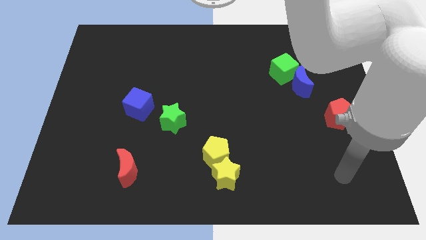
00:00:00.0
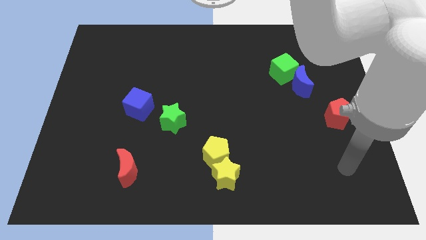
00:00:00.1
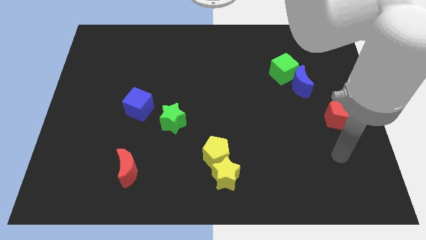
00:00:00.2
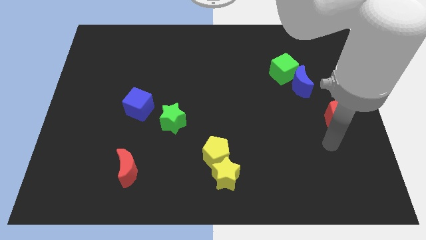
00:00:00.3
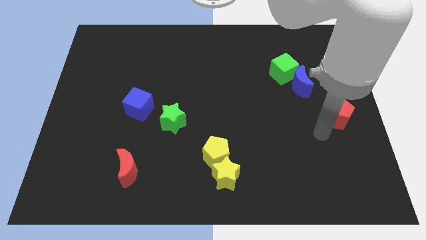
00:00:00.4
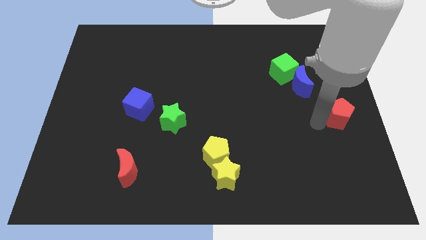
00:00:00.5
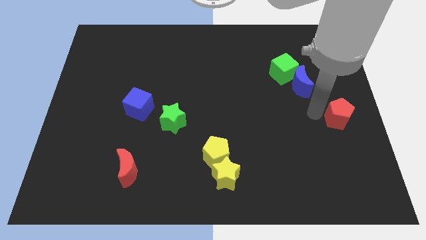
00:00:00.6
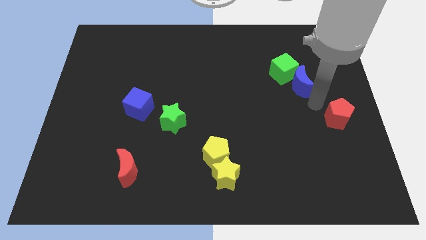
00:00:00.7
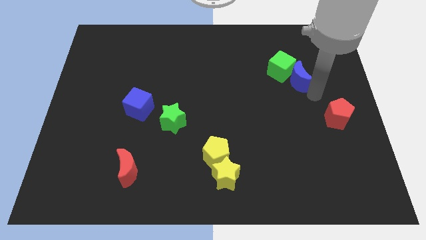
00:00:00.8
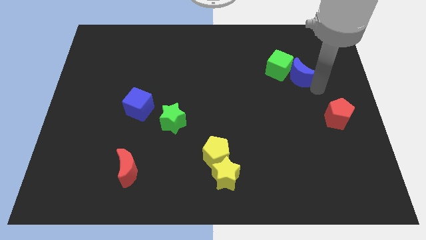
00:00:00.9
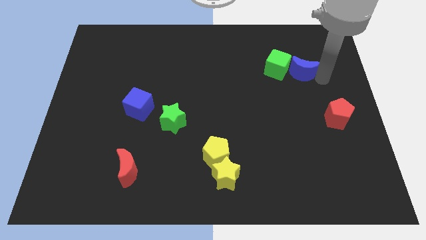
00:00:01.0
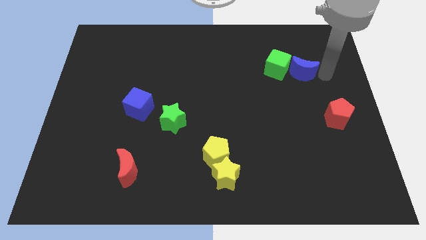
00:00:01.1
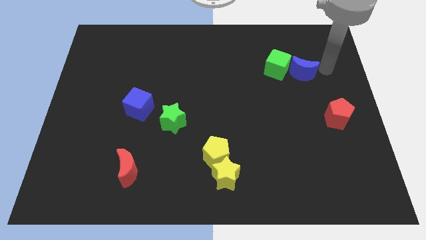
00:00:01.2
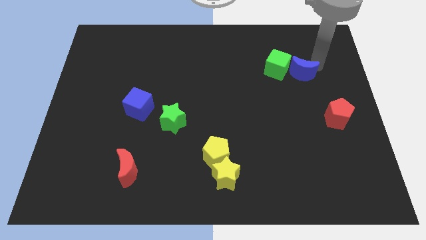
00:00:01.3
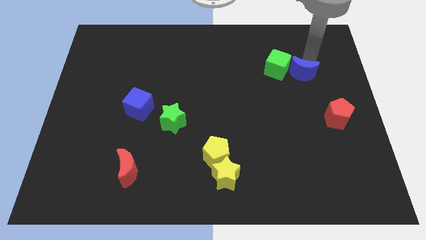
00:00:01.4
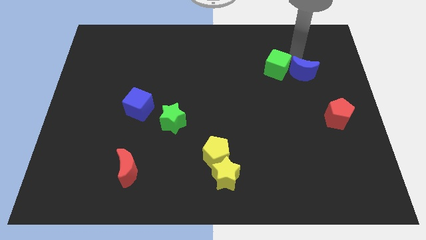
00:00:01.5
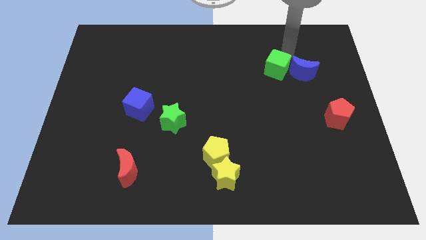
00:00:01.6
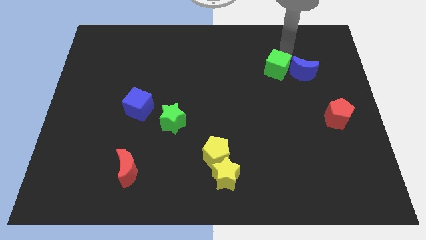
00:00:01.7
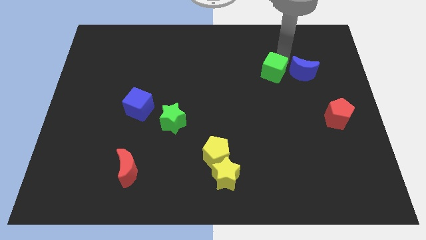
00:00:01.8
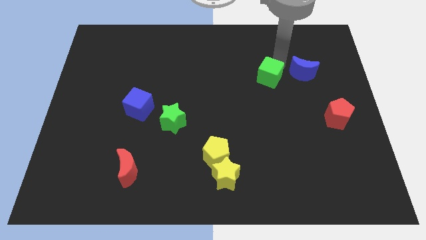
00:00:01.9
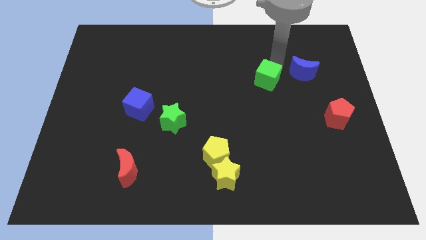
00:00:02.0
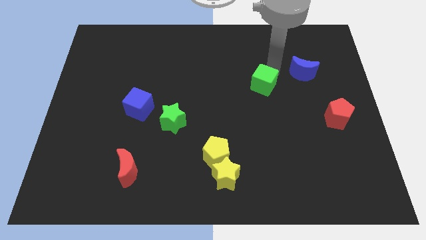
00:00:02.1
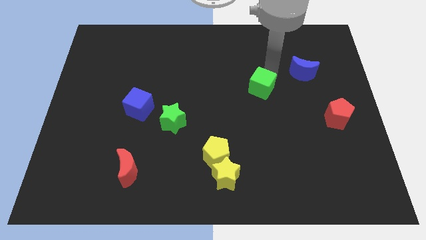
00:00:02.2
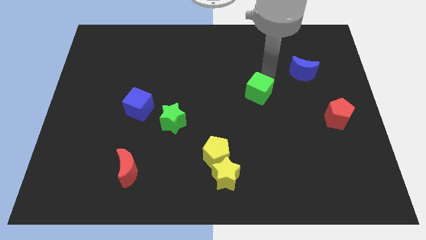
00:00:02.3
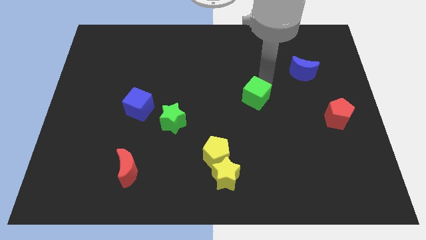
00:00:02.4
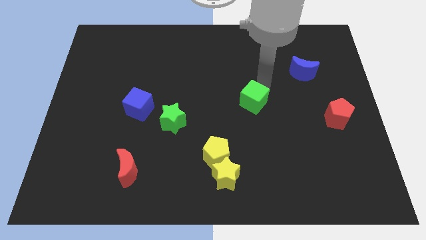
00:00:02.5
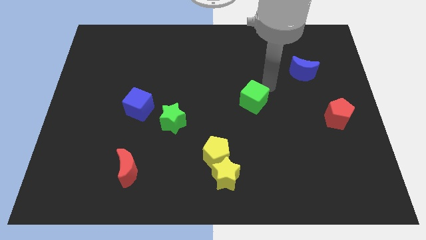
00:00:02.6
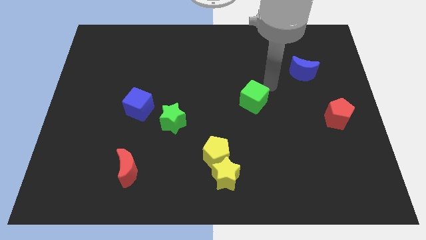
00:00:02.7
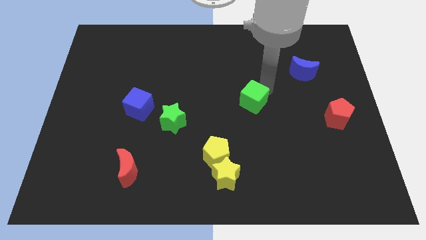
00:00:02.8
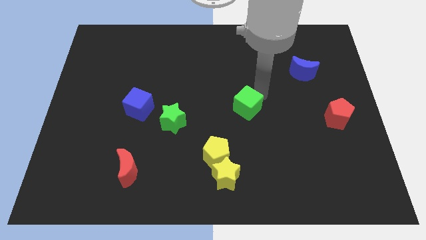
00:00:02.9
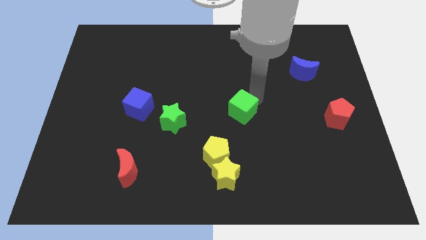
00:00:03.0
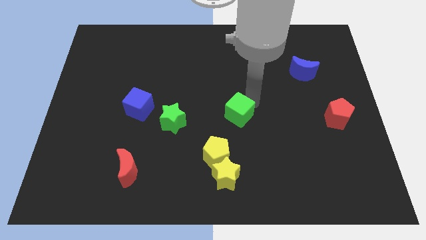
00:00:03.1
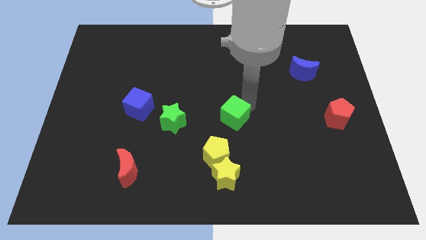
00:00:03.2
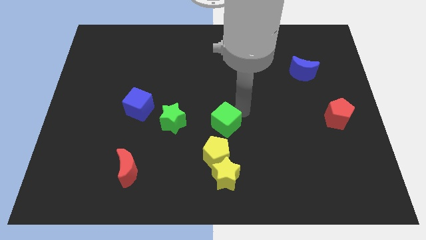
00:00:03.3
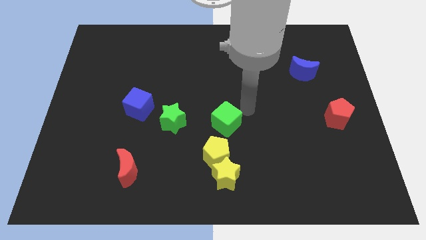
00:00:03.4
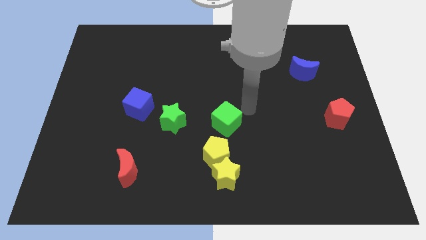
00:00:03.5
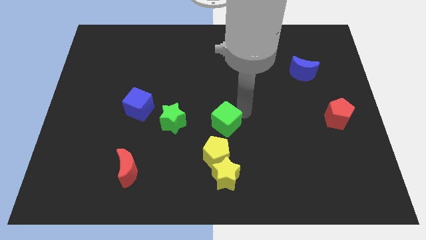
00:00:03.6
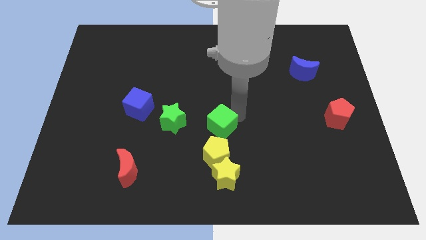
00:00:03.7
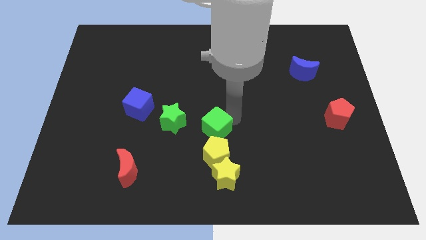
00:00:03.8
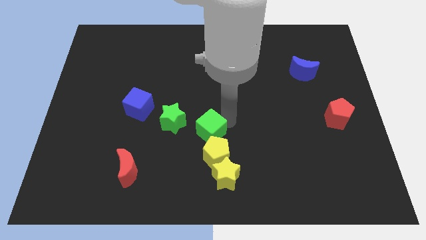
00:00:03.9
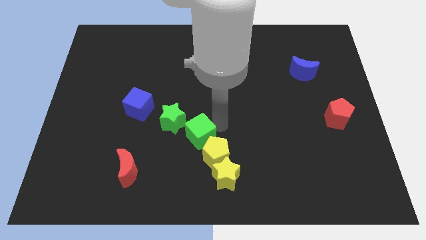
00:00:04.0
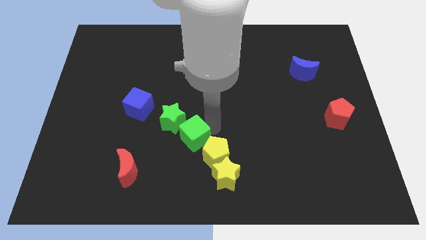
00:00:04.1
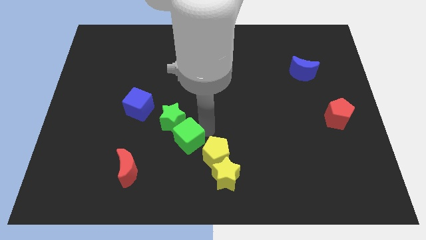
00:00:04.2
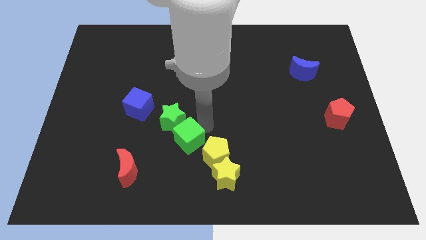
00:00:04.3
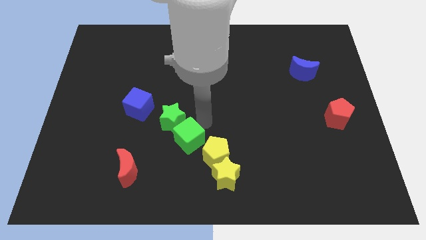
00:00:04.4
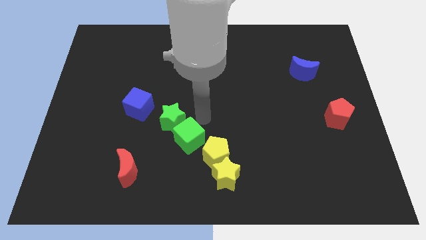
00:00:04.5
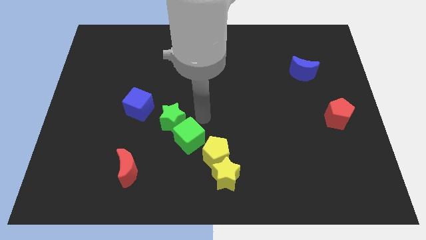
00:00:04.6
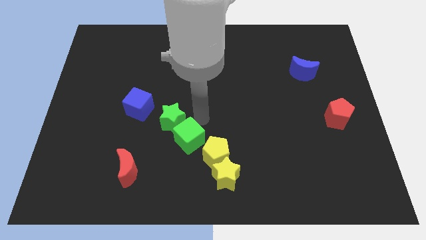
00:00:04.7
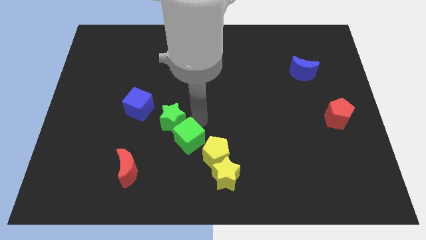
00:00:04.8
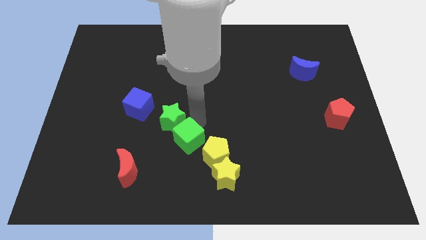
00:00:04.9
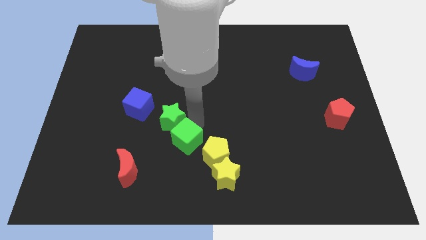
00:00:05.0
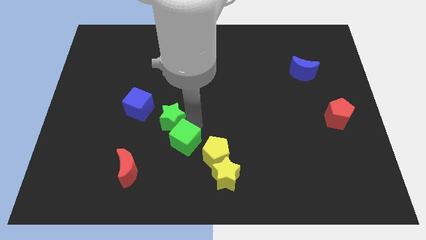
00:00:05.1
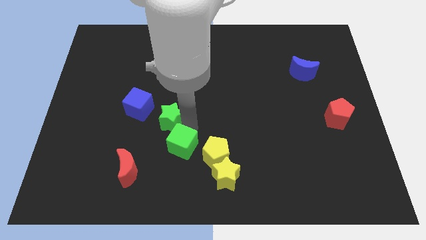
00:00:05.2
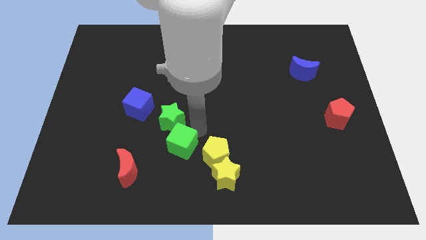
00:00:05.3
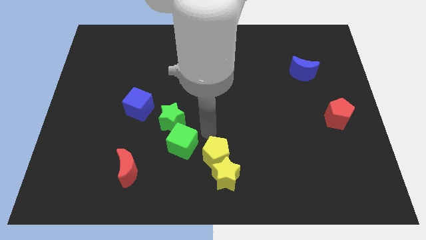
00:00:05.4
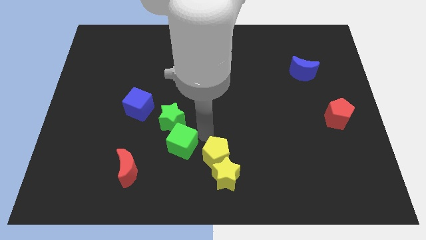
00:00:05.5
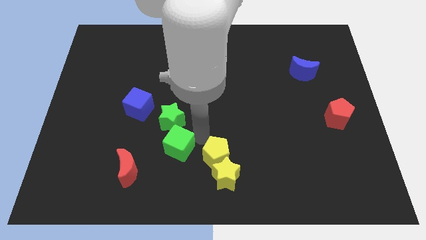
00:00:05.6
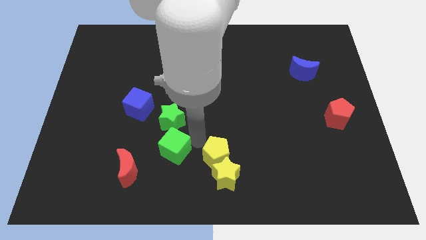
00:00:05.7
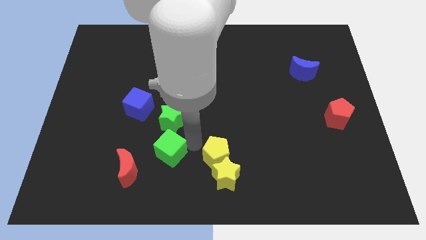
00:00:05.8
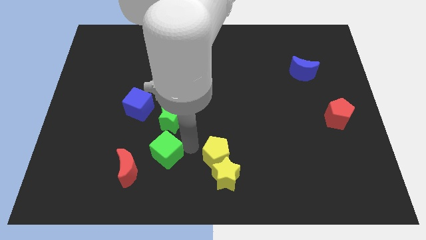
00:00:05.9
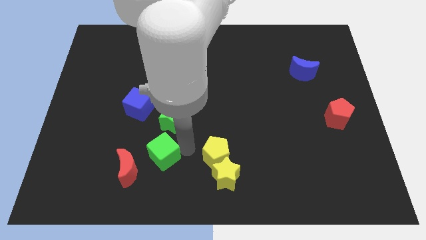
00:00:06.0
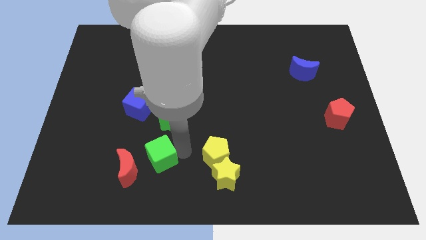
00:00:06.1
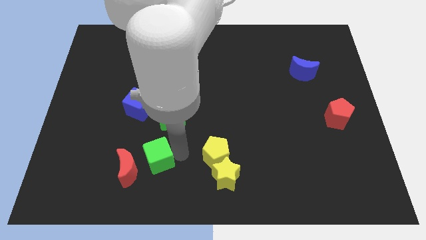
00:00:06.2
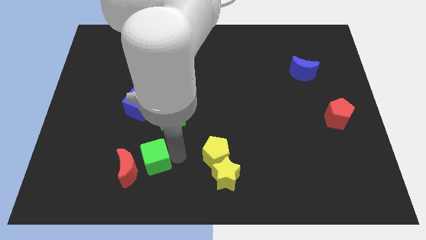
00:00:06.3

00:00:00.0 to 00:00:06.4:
move the green cube next to the red moon

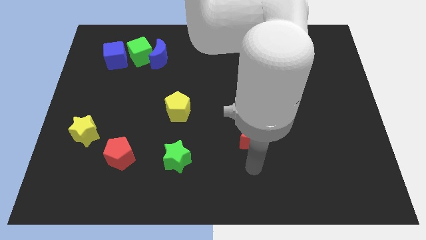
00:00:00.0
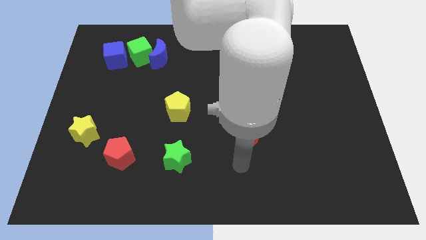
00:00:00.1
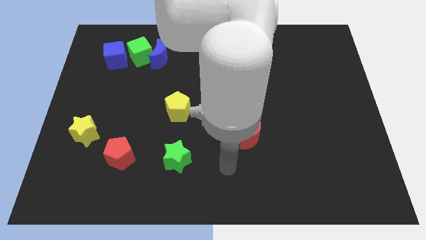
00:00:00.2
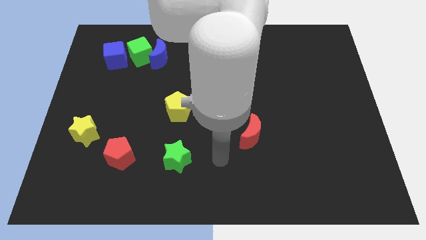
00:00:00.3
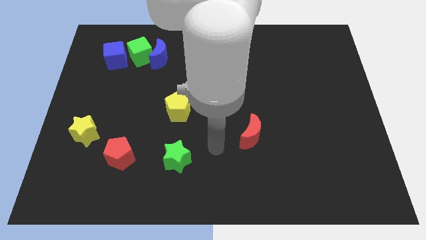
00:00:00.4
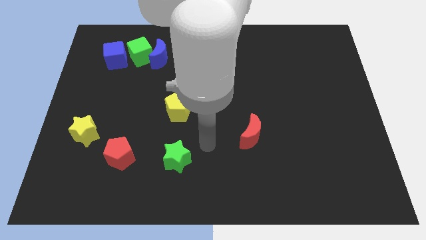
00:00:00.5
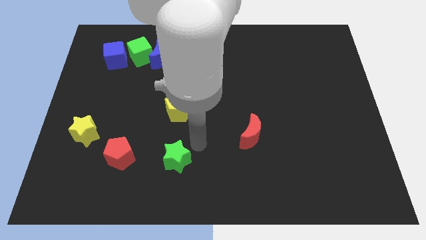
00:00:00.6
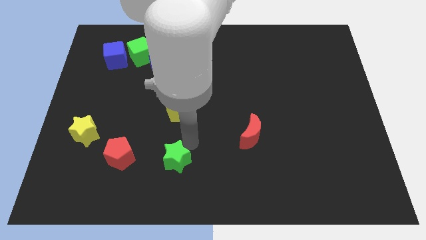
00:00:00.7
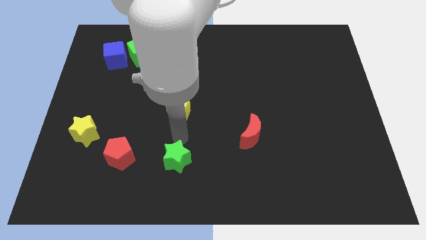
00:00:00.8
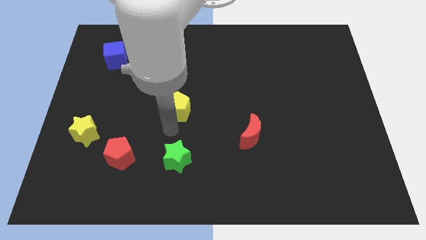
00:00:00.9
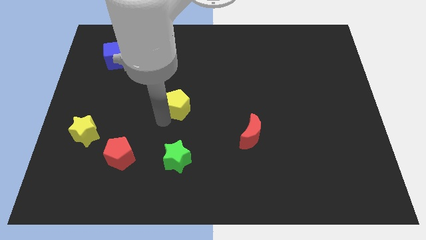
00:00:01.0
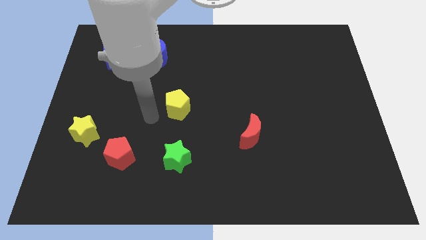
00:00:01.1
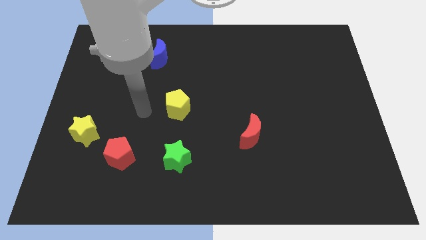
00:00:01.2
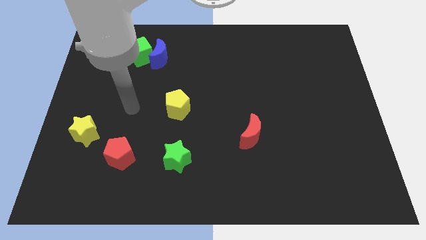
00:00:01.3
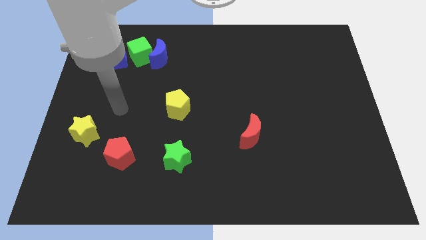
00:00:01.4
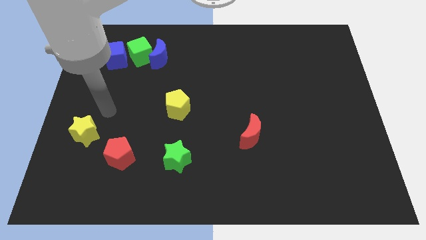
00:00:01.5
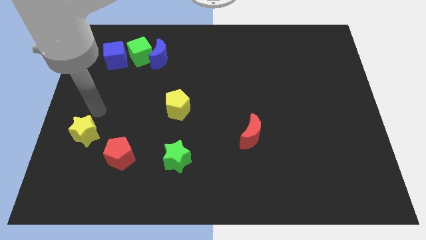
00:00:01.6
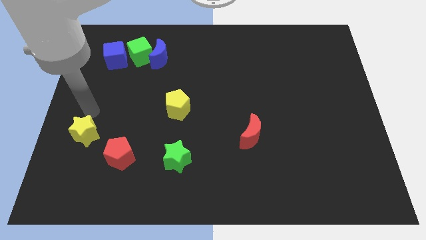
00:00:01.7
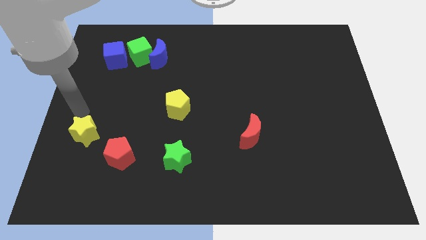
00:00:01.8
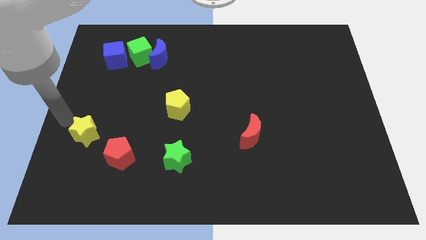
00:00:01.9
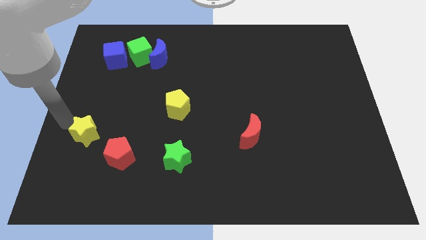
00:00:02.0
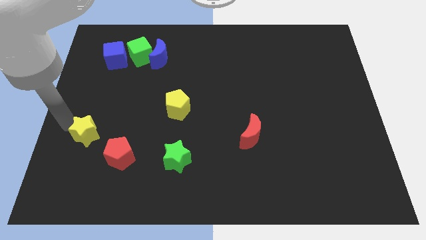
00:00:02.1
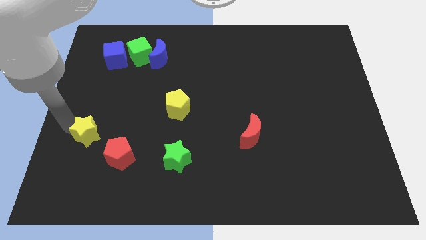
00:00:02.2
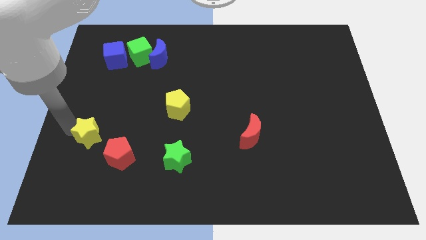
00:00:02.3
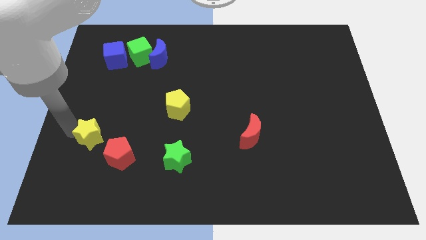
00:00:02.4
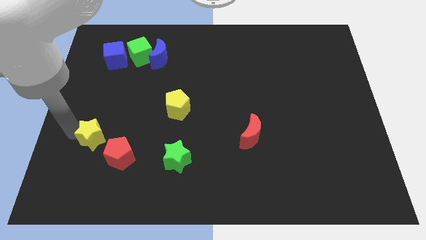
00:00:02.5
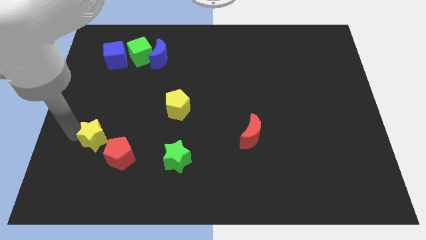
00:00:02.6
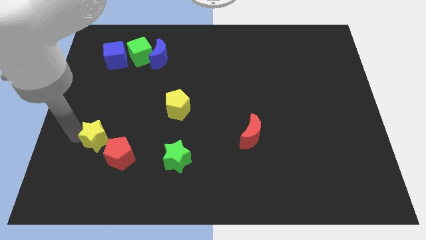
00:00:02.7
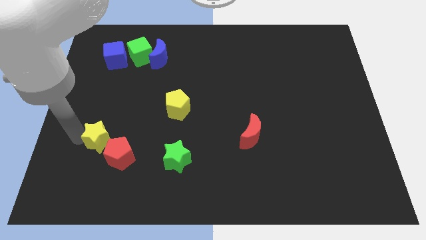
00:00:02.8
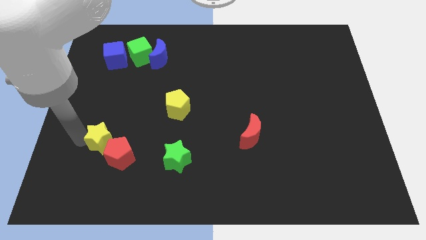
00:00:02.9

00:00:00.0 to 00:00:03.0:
put the yellow star to the red pentagon
